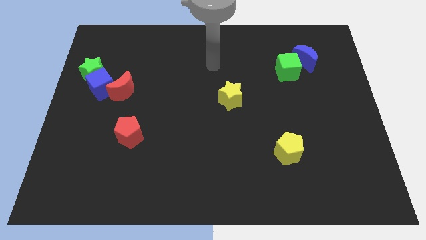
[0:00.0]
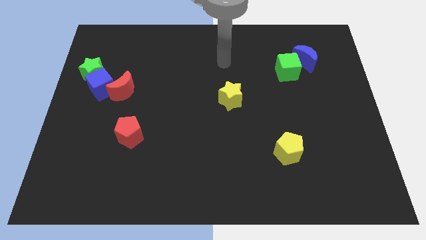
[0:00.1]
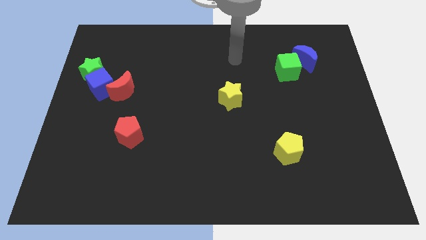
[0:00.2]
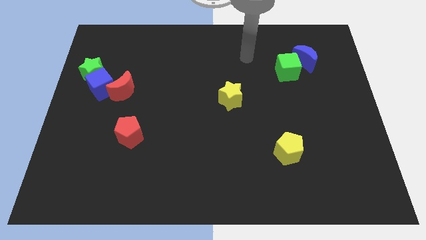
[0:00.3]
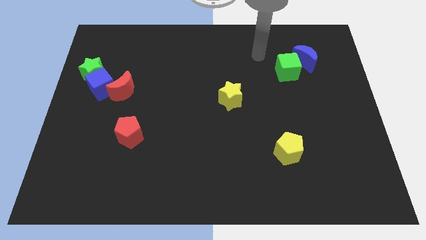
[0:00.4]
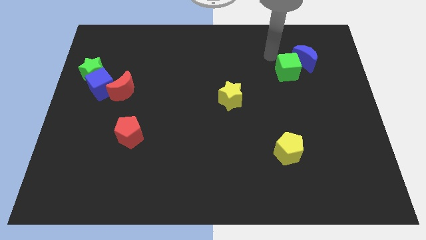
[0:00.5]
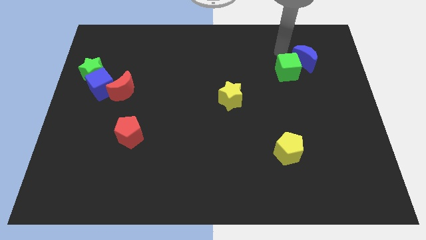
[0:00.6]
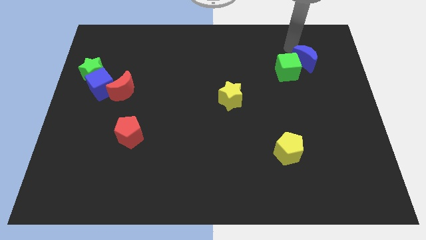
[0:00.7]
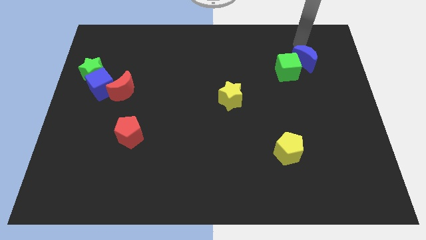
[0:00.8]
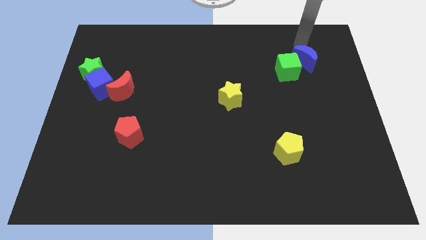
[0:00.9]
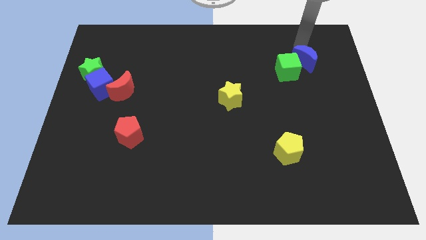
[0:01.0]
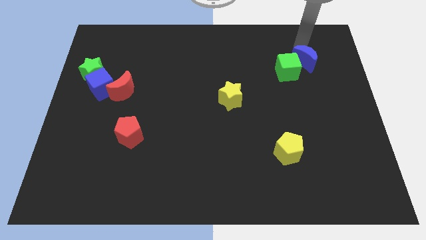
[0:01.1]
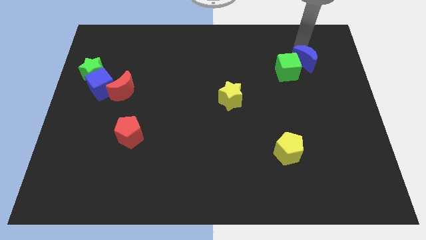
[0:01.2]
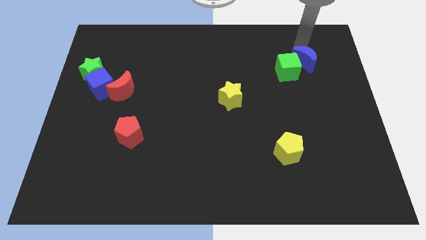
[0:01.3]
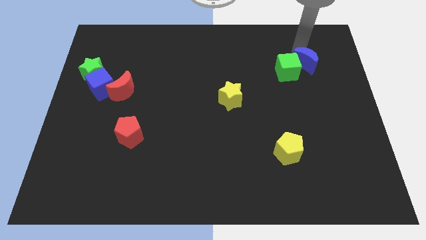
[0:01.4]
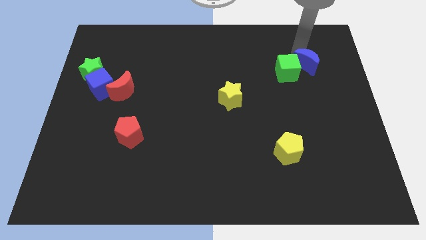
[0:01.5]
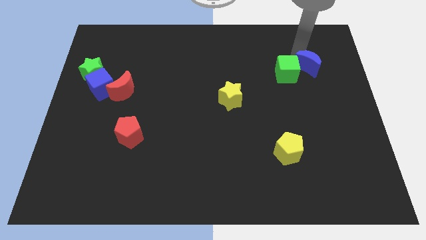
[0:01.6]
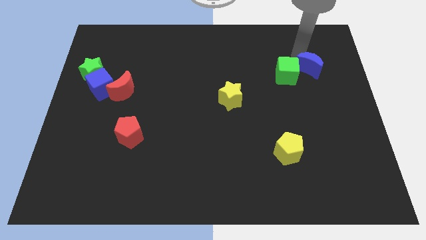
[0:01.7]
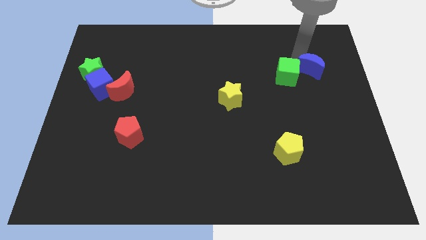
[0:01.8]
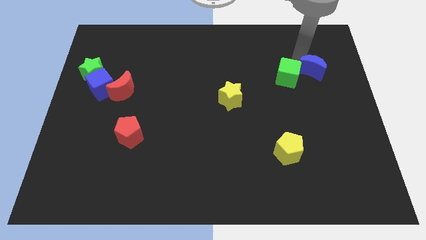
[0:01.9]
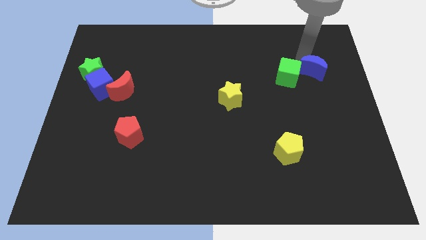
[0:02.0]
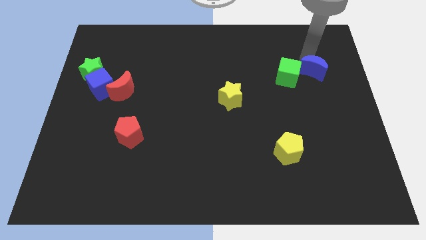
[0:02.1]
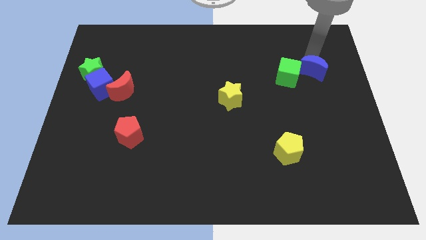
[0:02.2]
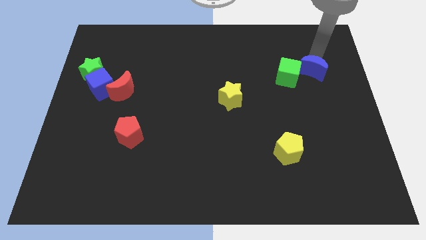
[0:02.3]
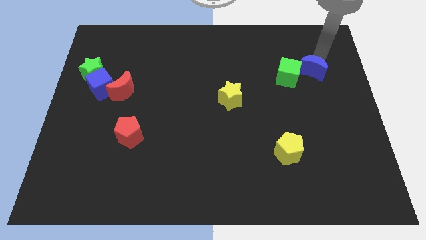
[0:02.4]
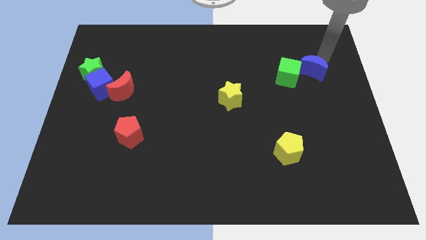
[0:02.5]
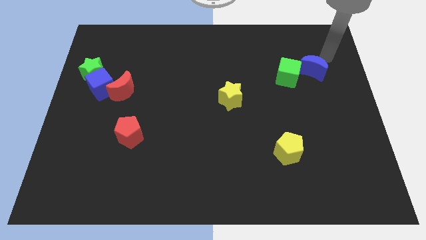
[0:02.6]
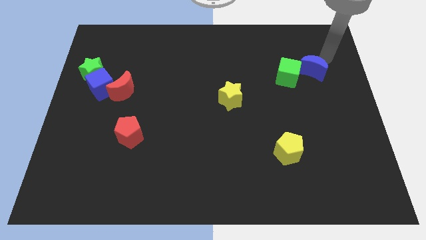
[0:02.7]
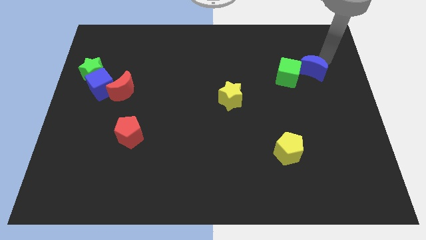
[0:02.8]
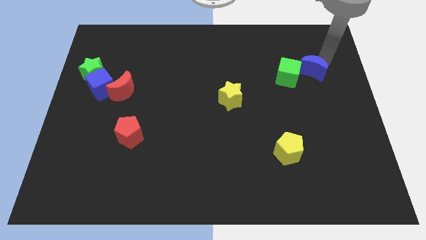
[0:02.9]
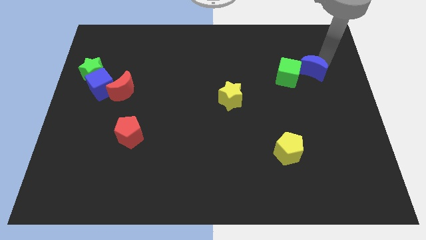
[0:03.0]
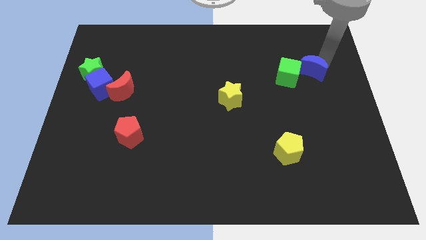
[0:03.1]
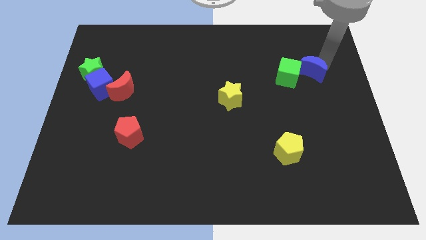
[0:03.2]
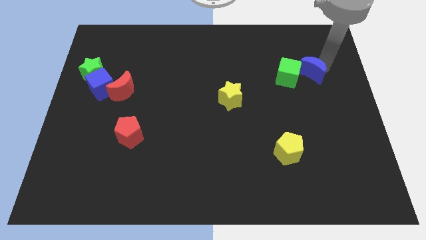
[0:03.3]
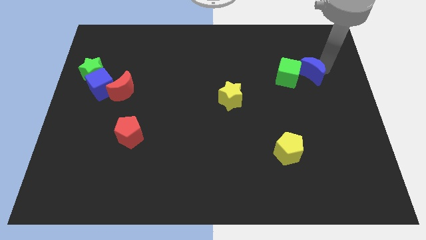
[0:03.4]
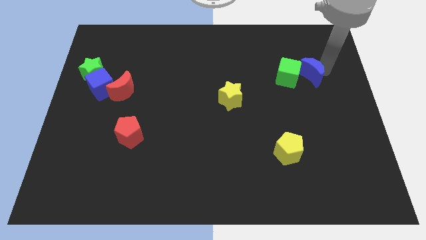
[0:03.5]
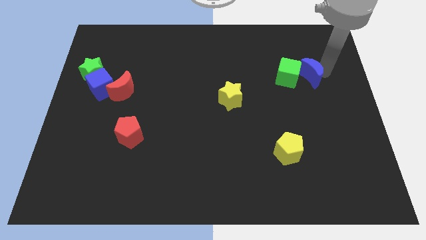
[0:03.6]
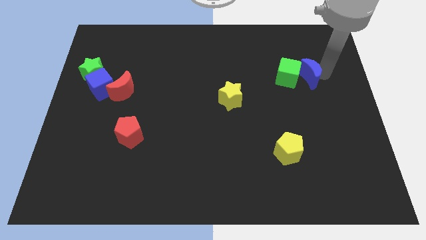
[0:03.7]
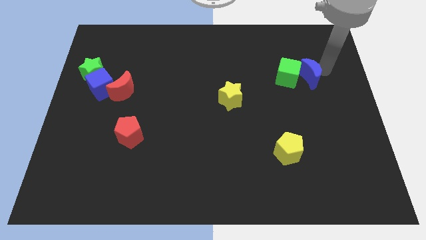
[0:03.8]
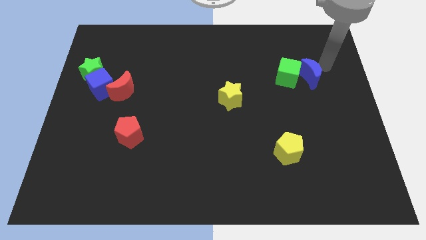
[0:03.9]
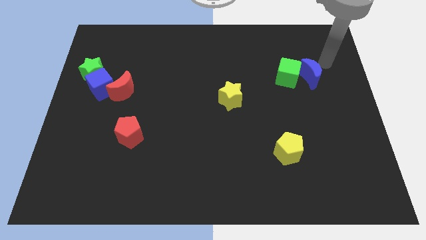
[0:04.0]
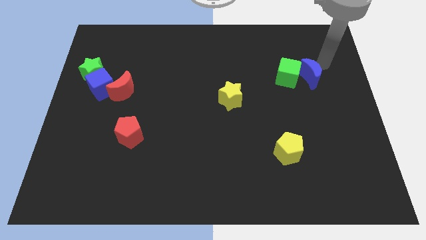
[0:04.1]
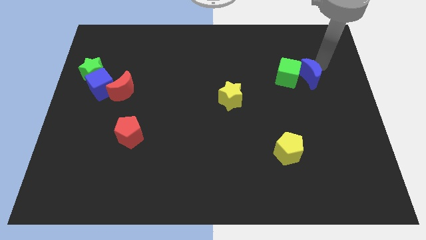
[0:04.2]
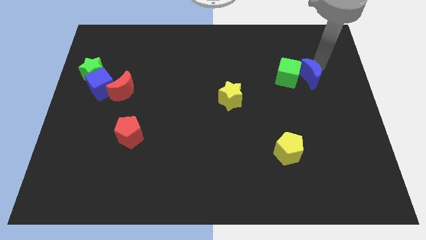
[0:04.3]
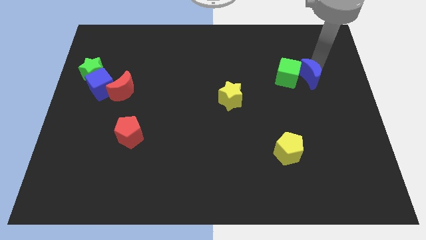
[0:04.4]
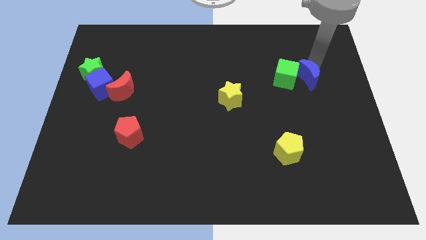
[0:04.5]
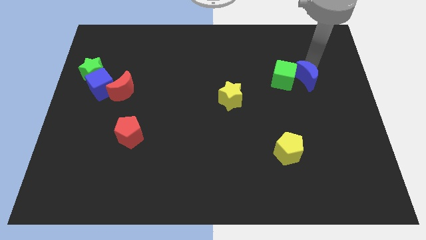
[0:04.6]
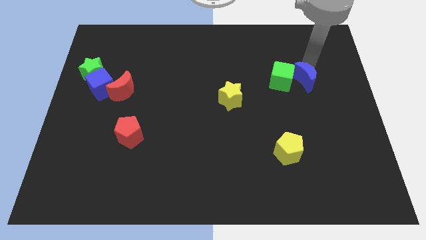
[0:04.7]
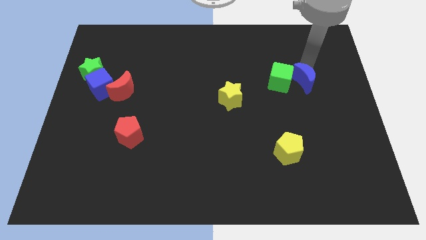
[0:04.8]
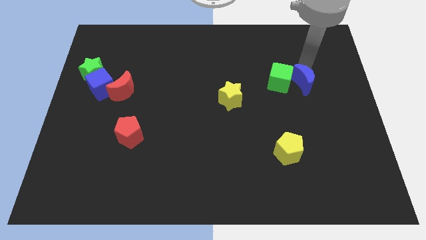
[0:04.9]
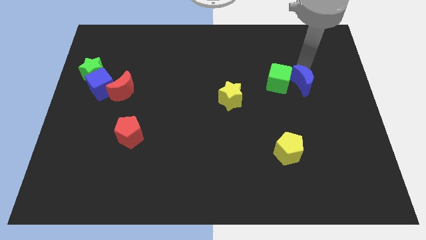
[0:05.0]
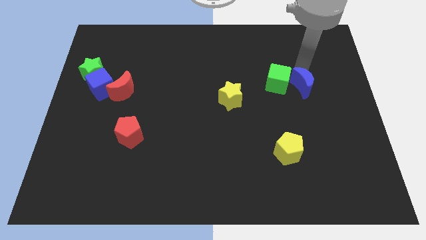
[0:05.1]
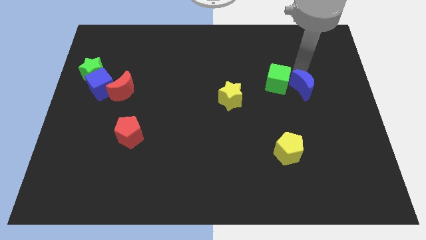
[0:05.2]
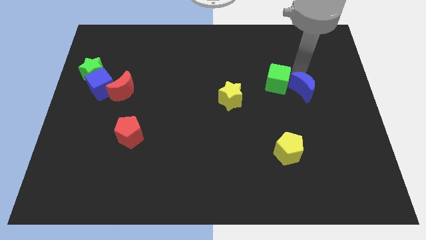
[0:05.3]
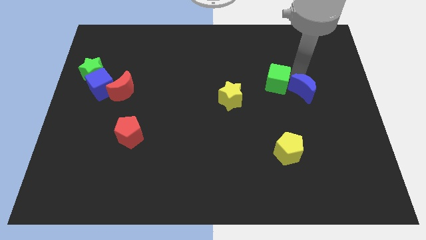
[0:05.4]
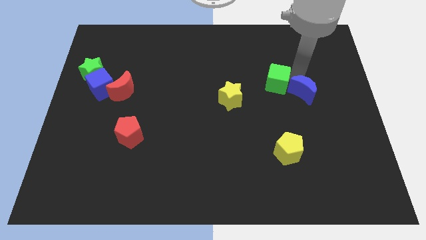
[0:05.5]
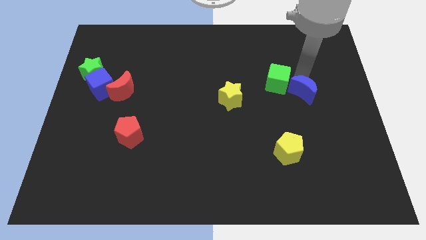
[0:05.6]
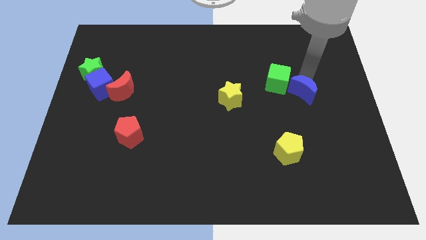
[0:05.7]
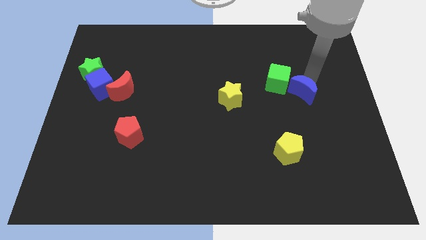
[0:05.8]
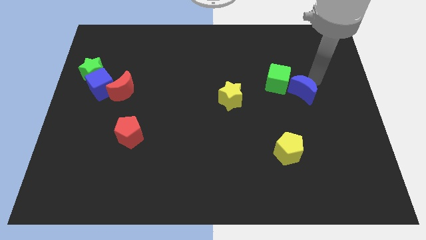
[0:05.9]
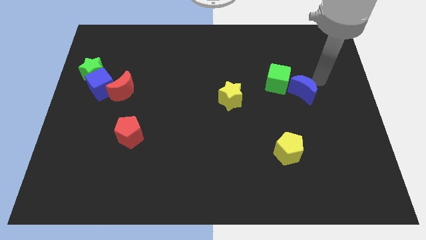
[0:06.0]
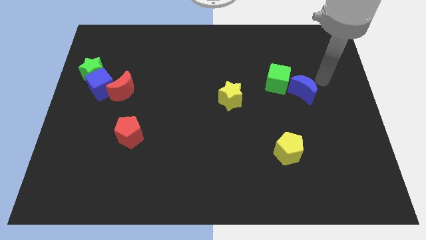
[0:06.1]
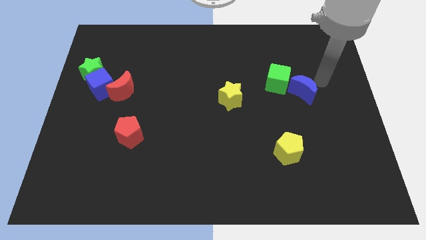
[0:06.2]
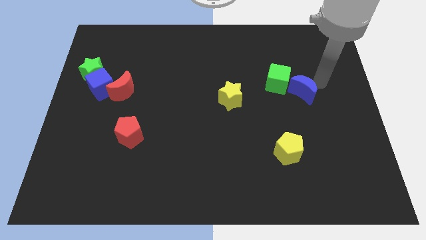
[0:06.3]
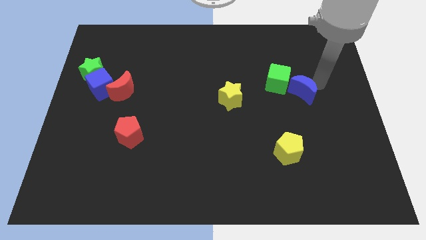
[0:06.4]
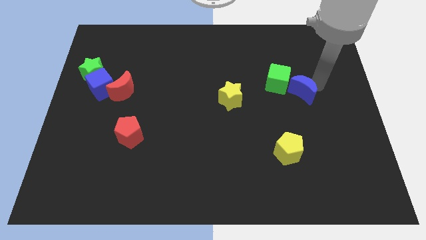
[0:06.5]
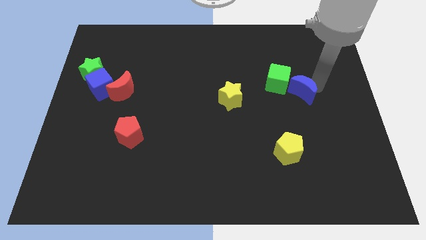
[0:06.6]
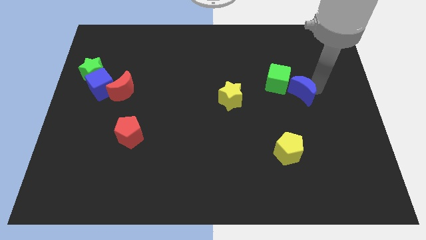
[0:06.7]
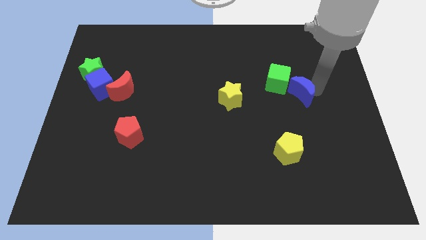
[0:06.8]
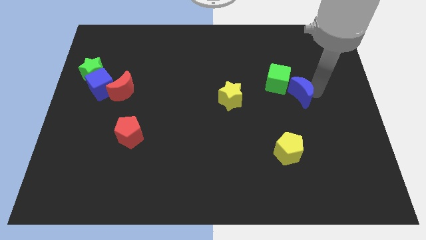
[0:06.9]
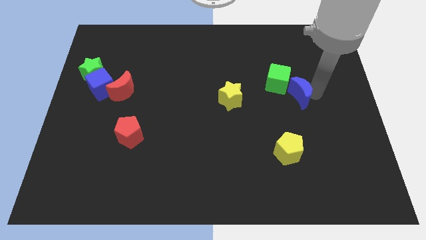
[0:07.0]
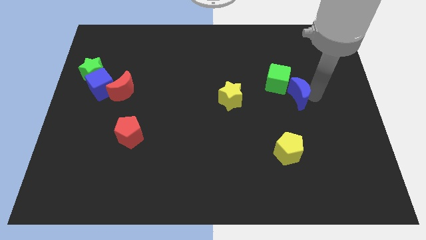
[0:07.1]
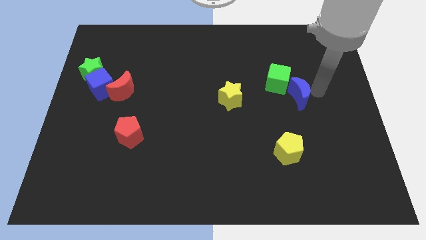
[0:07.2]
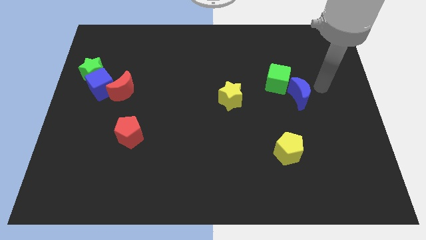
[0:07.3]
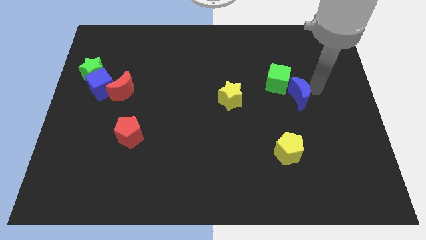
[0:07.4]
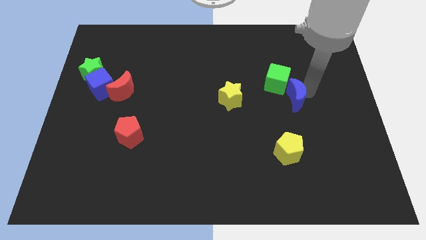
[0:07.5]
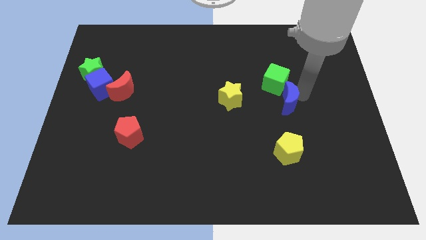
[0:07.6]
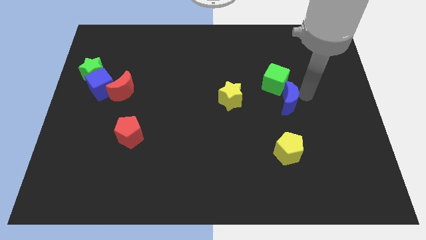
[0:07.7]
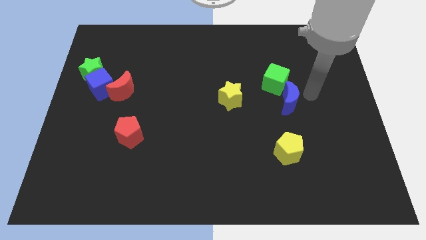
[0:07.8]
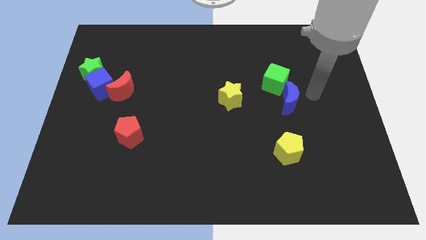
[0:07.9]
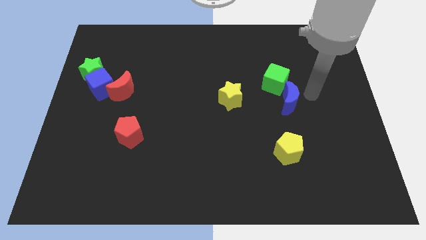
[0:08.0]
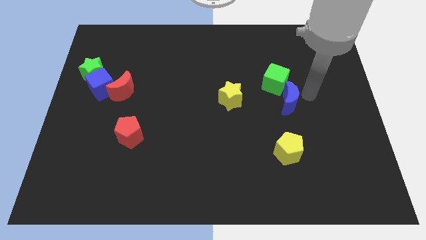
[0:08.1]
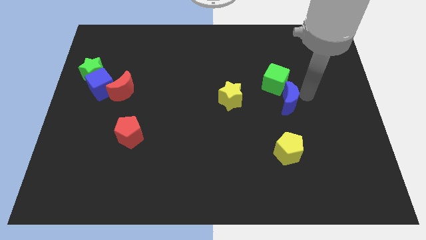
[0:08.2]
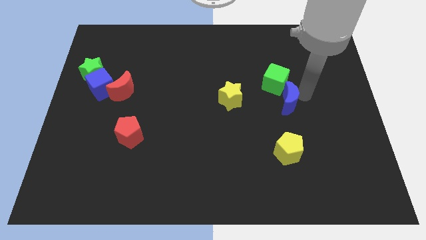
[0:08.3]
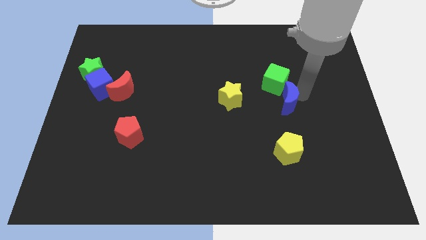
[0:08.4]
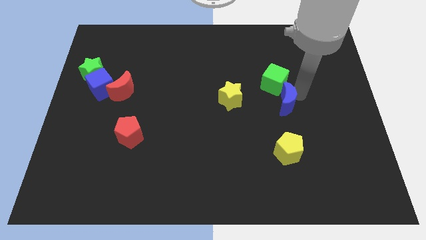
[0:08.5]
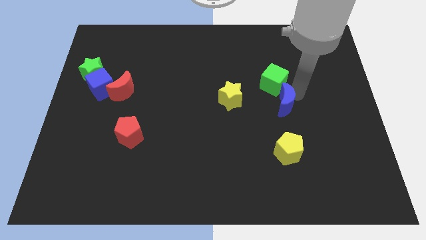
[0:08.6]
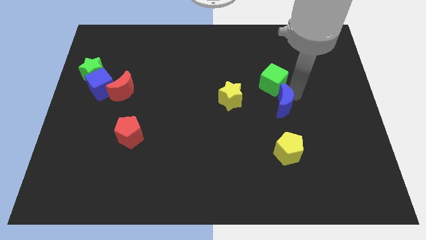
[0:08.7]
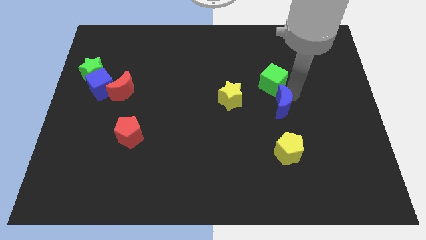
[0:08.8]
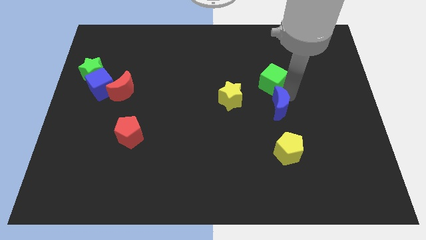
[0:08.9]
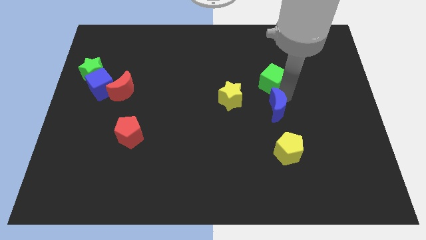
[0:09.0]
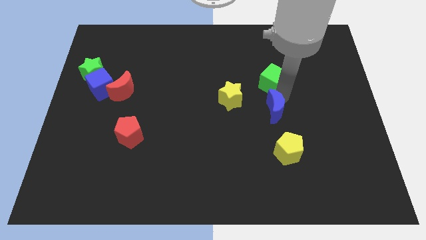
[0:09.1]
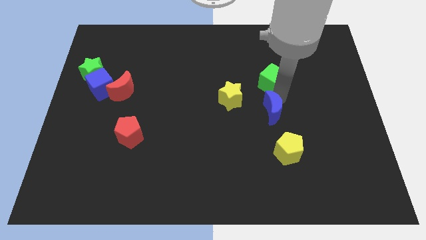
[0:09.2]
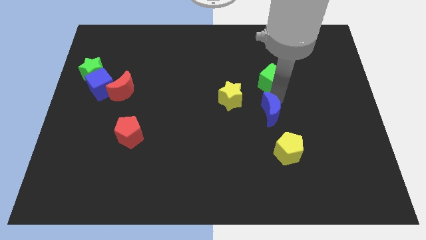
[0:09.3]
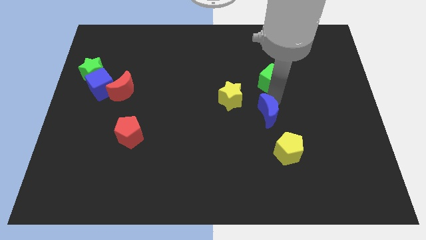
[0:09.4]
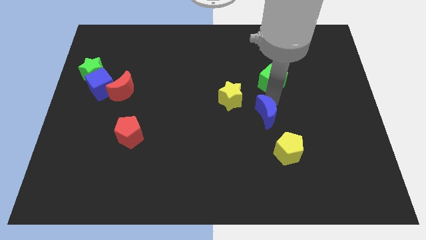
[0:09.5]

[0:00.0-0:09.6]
push the blue moon diagonally down and left
